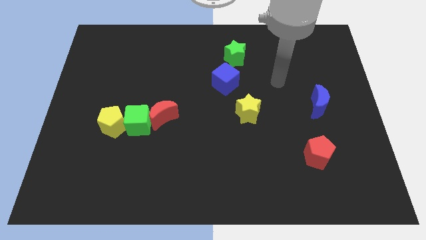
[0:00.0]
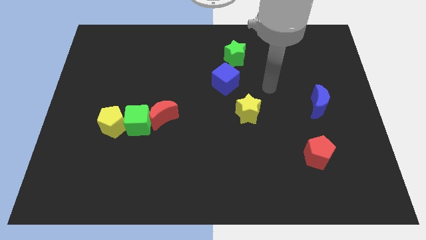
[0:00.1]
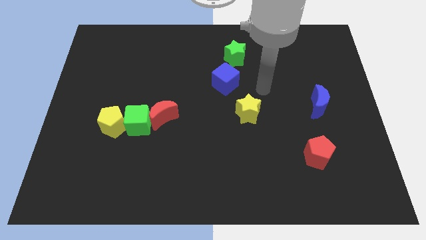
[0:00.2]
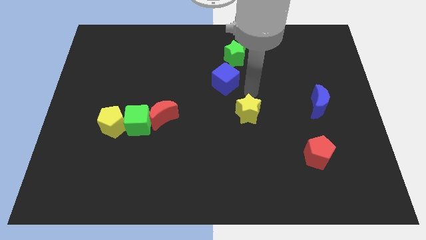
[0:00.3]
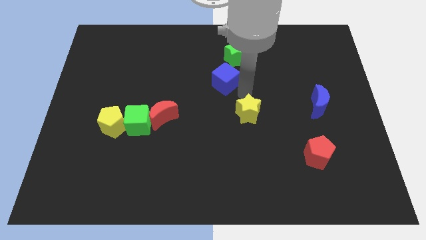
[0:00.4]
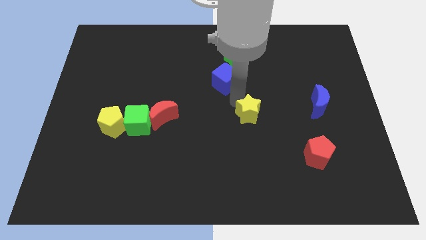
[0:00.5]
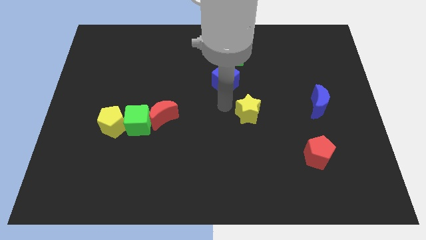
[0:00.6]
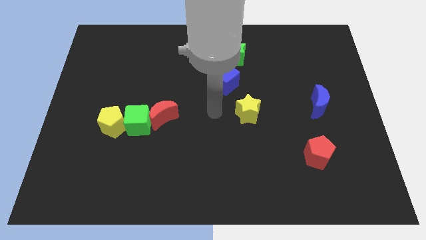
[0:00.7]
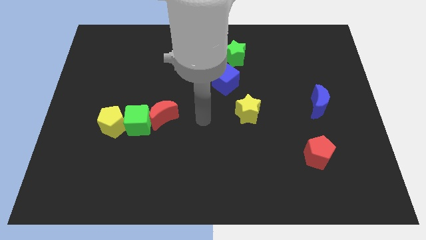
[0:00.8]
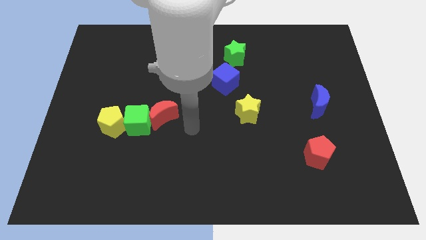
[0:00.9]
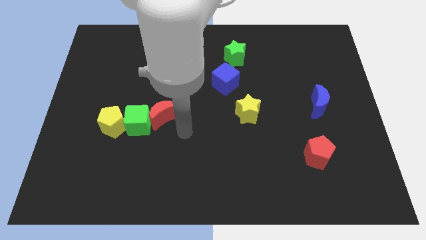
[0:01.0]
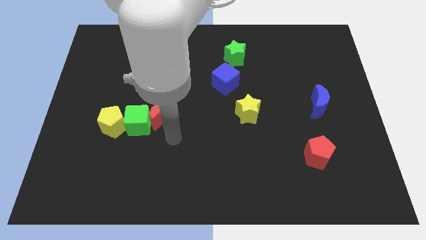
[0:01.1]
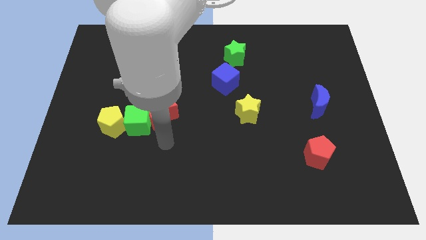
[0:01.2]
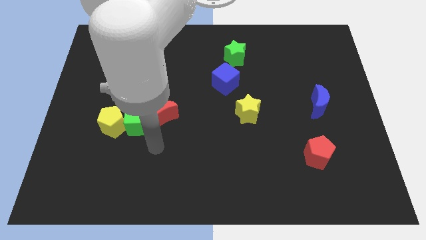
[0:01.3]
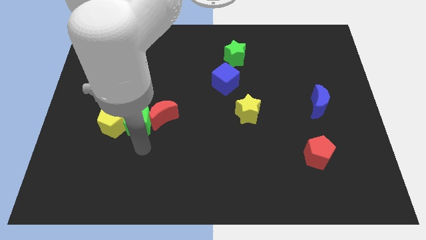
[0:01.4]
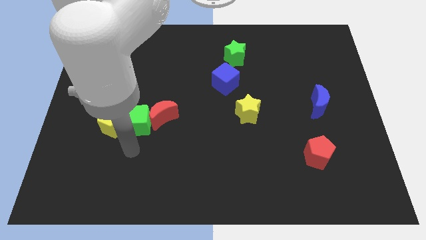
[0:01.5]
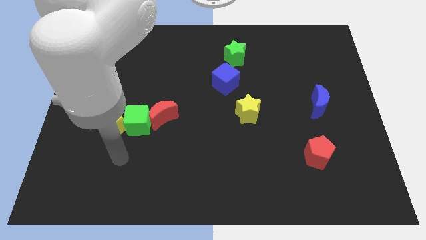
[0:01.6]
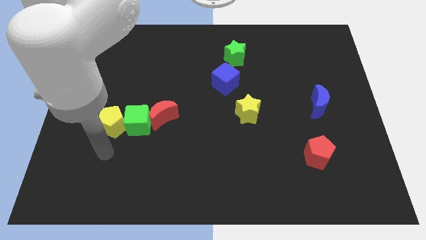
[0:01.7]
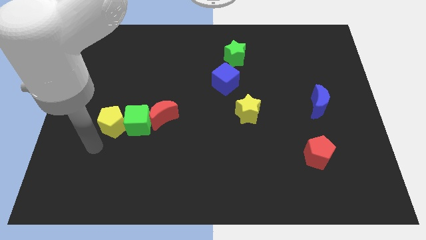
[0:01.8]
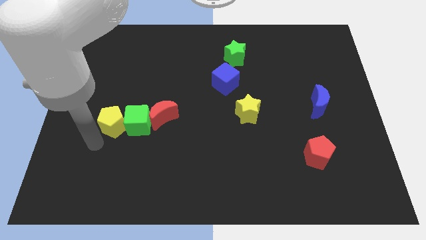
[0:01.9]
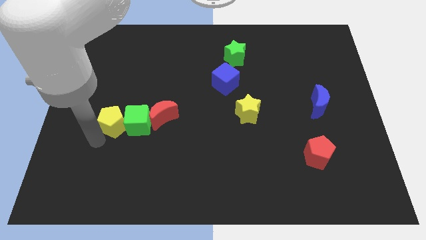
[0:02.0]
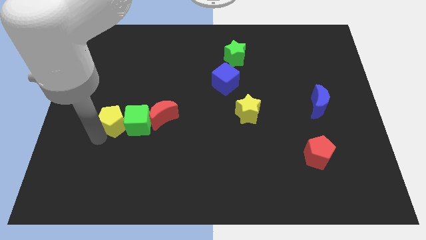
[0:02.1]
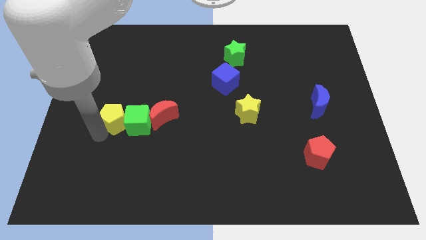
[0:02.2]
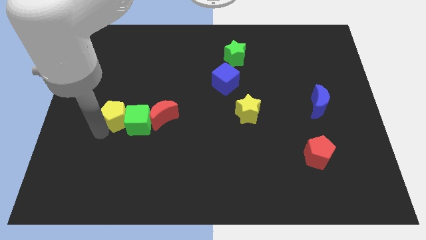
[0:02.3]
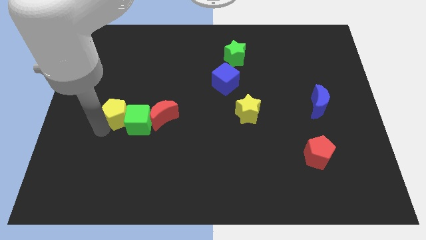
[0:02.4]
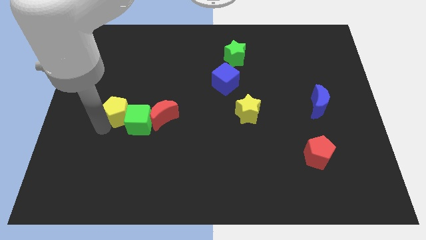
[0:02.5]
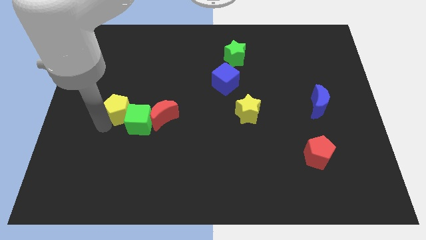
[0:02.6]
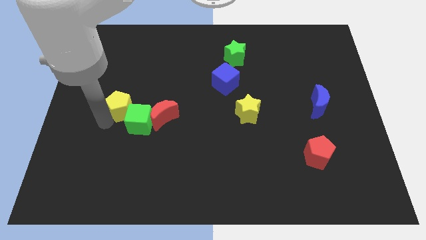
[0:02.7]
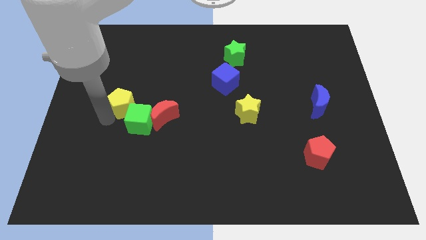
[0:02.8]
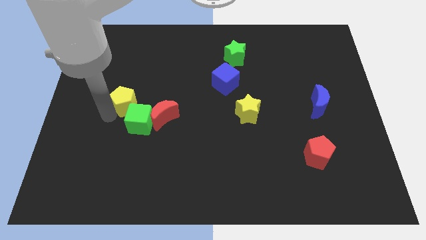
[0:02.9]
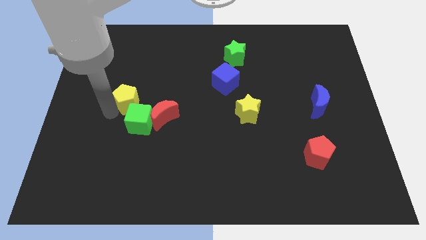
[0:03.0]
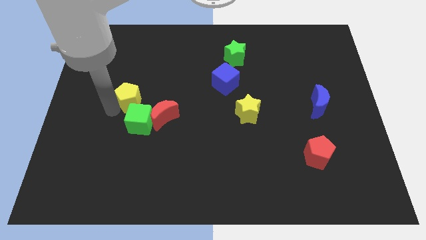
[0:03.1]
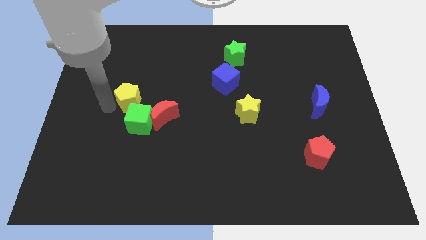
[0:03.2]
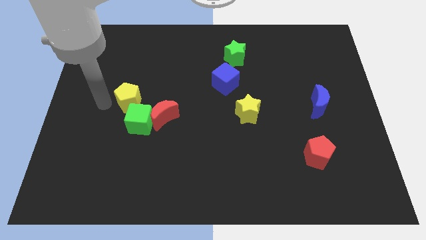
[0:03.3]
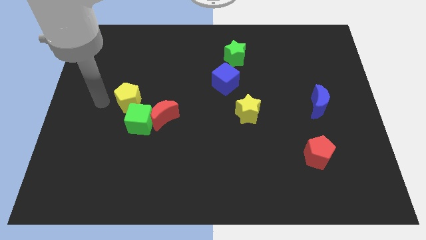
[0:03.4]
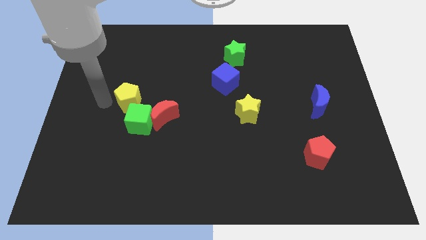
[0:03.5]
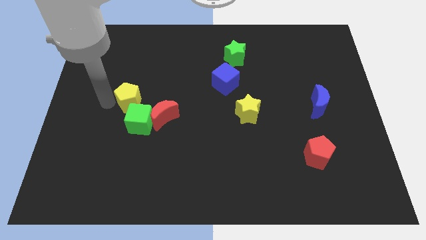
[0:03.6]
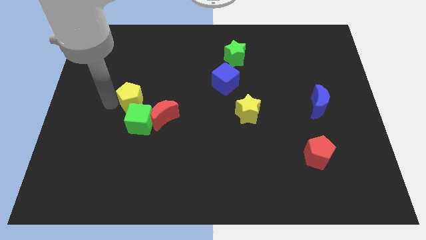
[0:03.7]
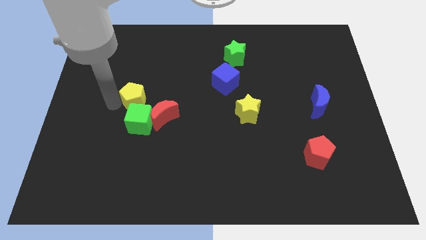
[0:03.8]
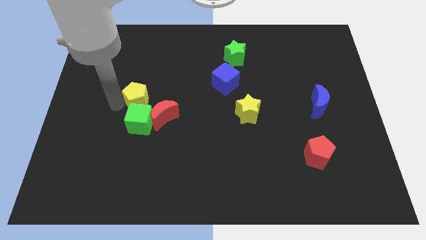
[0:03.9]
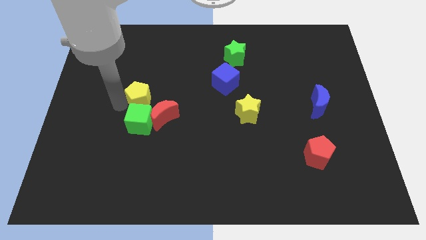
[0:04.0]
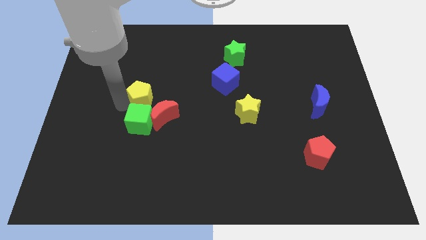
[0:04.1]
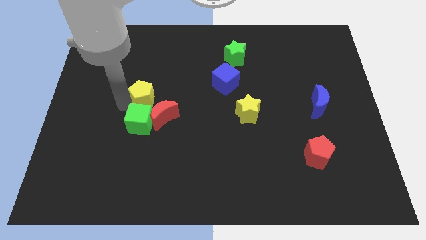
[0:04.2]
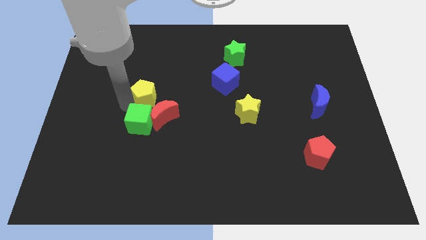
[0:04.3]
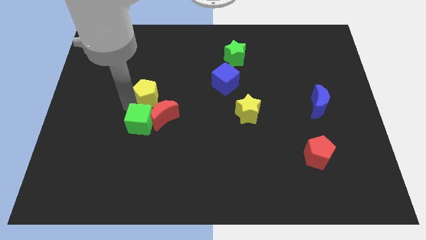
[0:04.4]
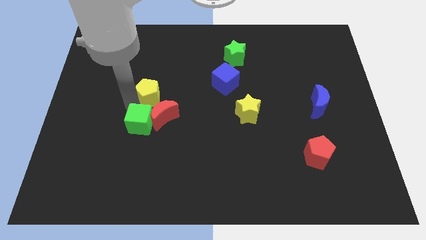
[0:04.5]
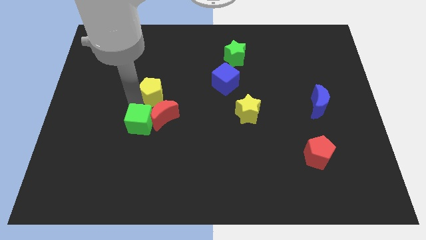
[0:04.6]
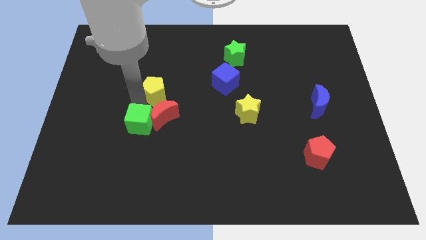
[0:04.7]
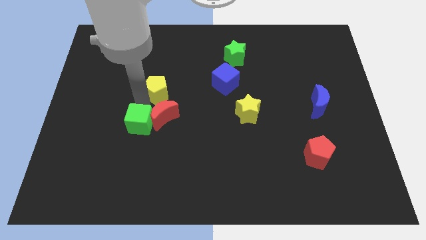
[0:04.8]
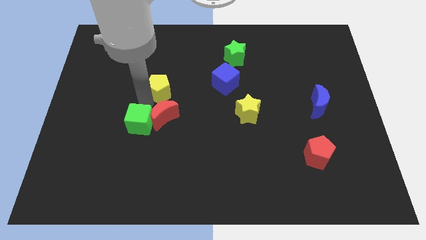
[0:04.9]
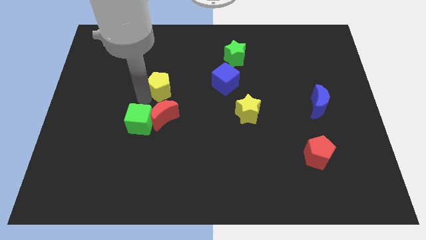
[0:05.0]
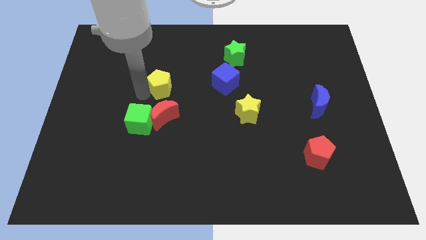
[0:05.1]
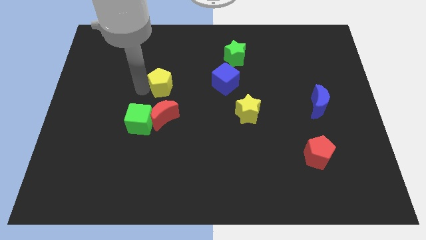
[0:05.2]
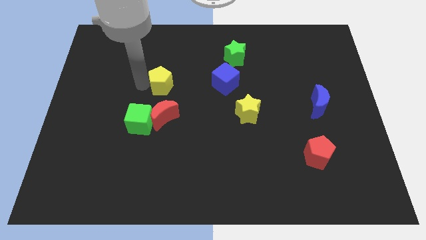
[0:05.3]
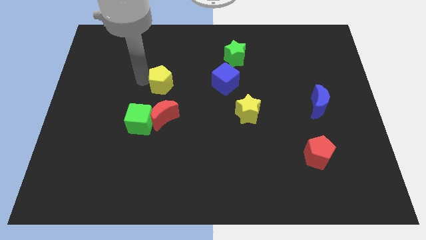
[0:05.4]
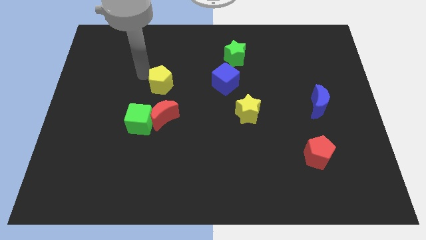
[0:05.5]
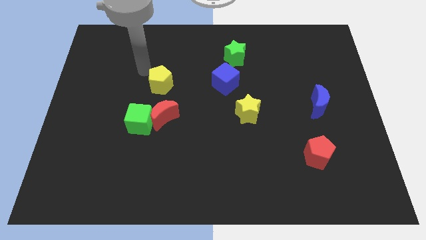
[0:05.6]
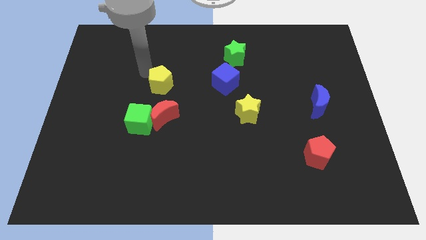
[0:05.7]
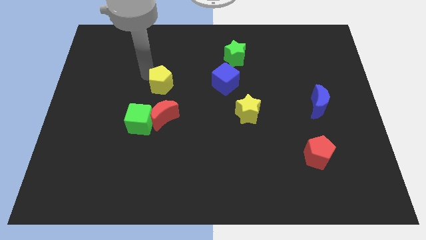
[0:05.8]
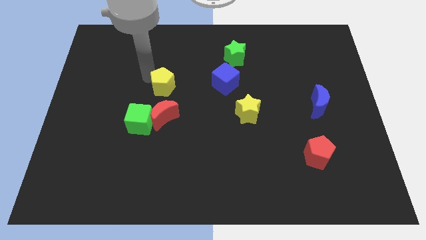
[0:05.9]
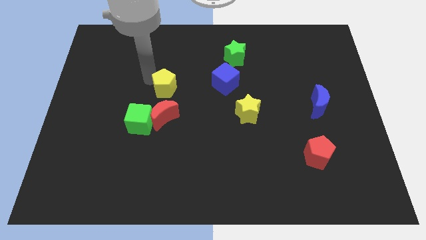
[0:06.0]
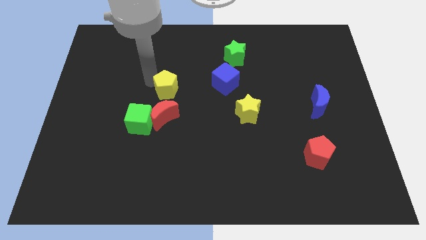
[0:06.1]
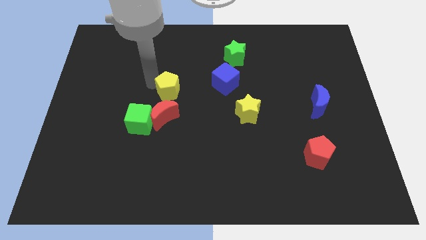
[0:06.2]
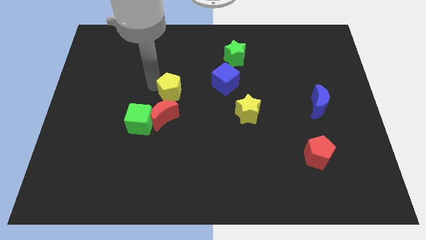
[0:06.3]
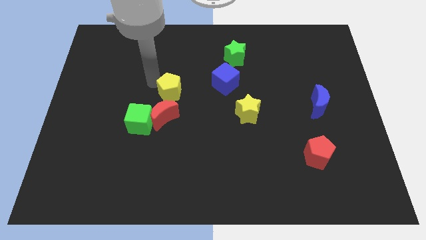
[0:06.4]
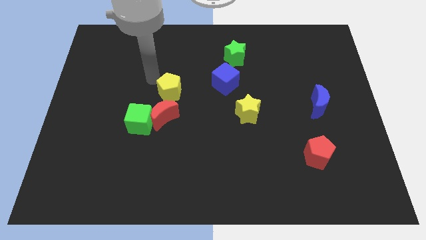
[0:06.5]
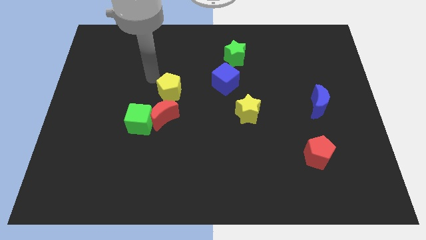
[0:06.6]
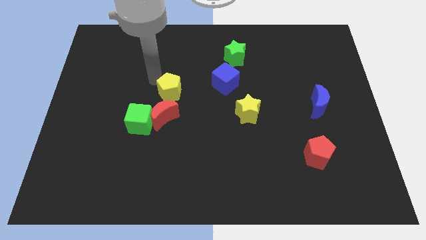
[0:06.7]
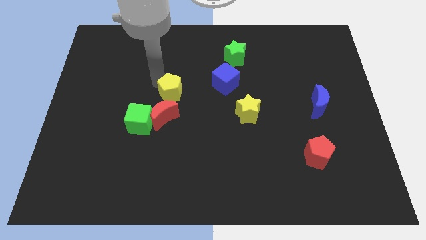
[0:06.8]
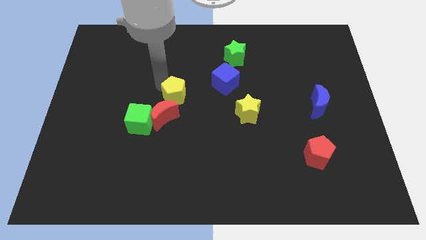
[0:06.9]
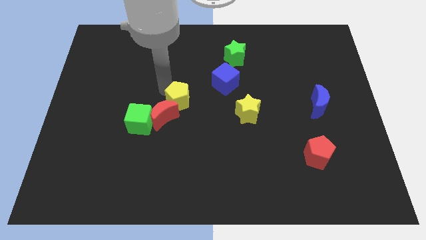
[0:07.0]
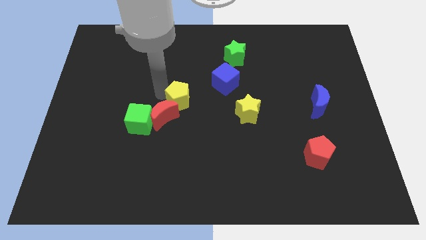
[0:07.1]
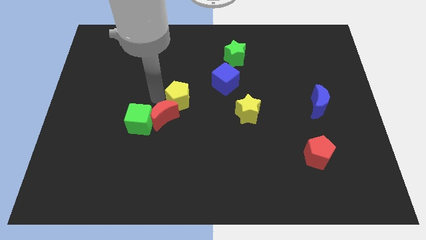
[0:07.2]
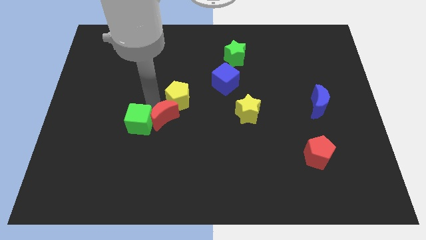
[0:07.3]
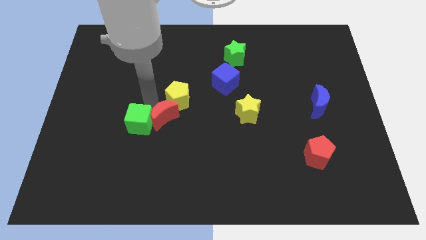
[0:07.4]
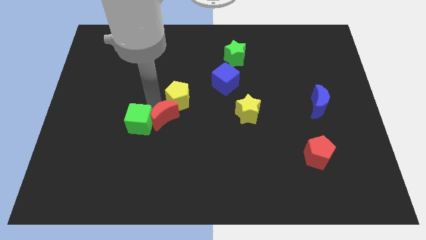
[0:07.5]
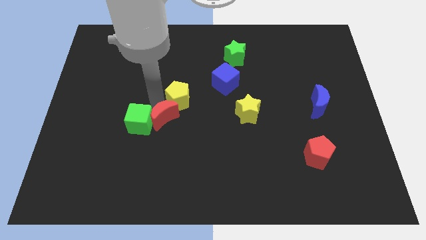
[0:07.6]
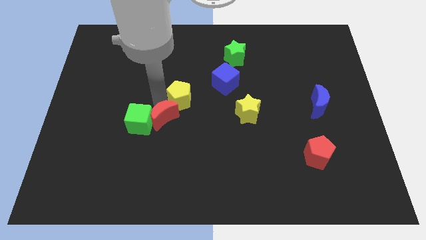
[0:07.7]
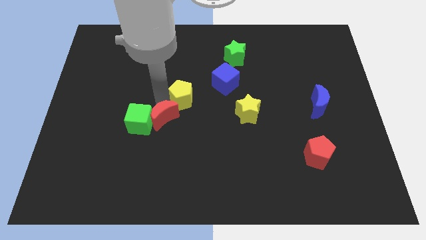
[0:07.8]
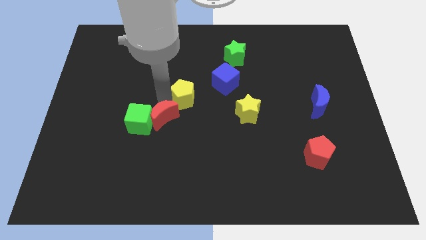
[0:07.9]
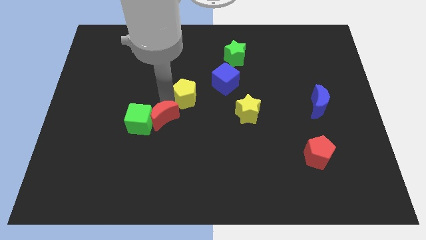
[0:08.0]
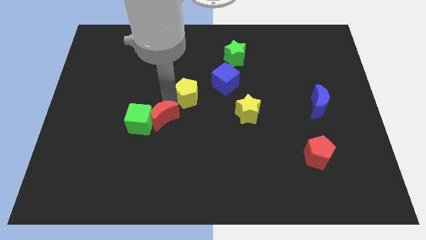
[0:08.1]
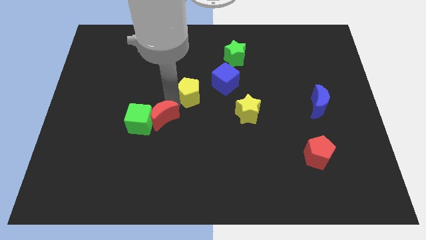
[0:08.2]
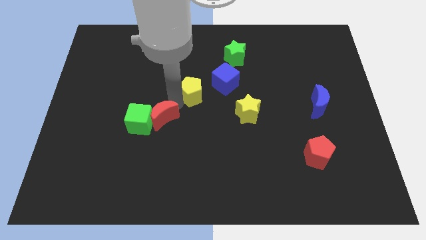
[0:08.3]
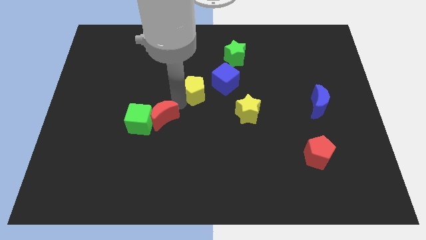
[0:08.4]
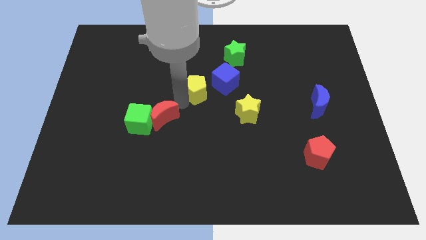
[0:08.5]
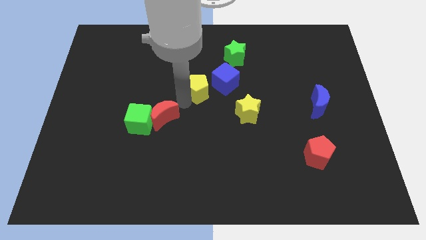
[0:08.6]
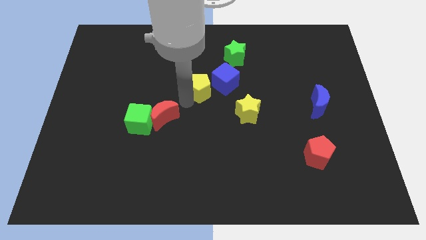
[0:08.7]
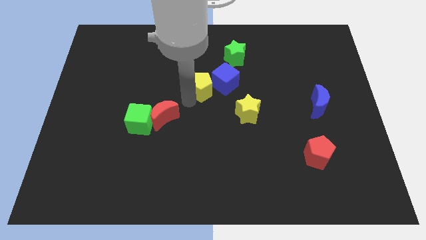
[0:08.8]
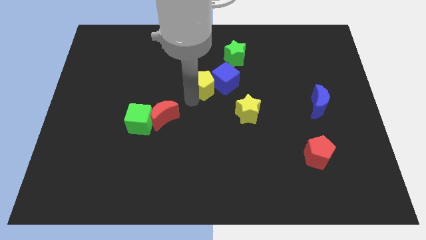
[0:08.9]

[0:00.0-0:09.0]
push the yellow pentagon next to the blue cube
